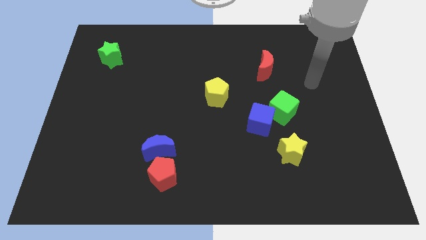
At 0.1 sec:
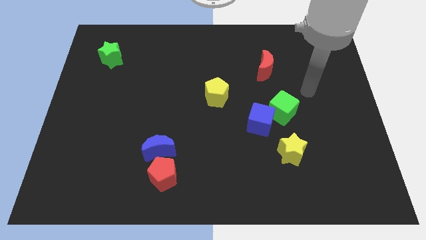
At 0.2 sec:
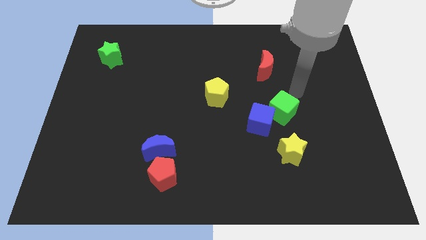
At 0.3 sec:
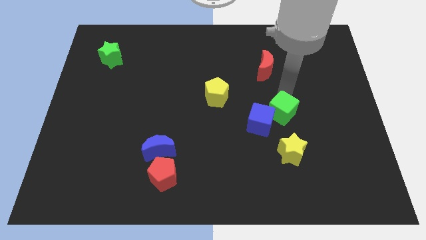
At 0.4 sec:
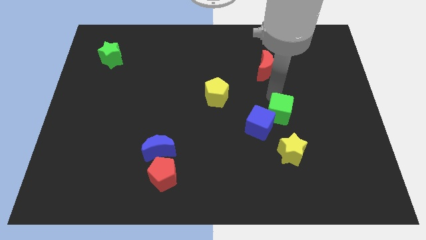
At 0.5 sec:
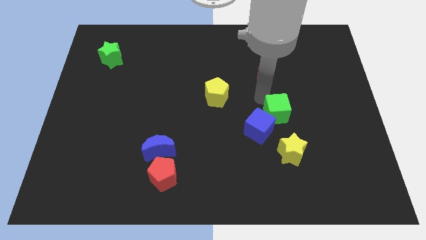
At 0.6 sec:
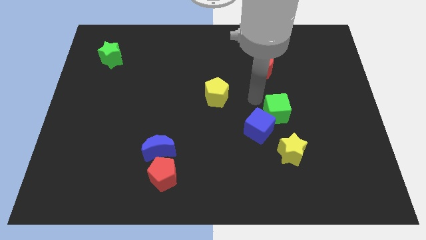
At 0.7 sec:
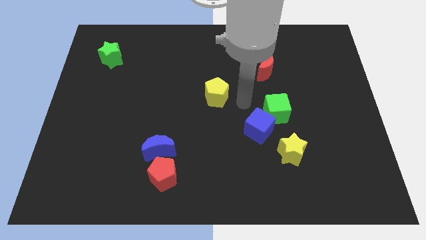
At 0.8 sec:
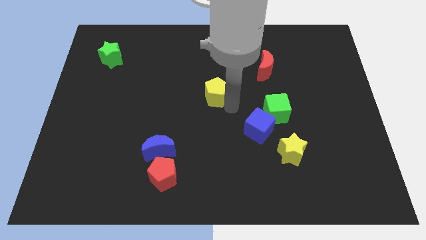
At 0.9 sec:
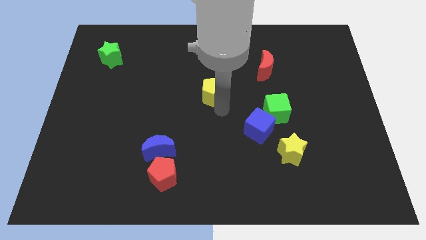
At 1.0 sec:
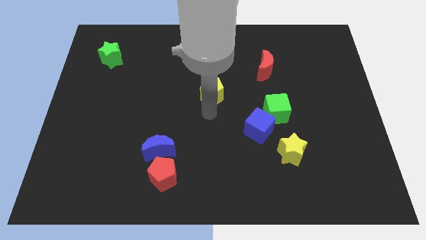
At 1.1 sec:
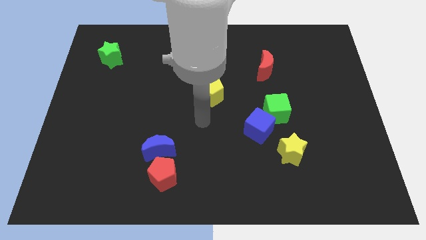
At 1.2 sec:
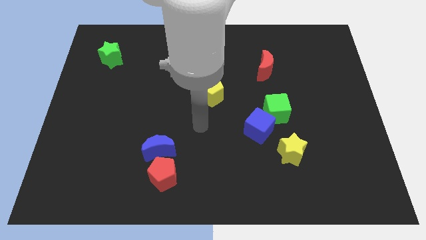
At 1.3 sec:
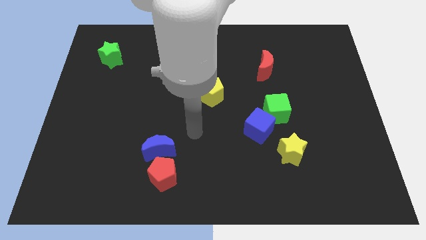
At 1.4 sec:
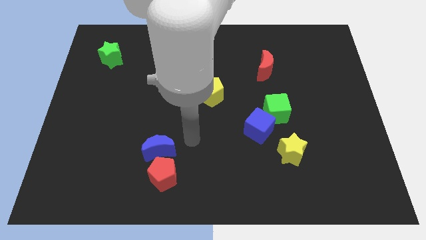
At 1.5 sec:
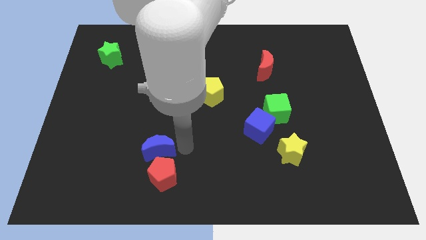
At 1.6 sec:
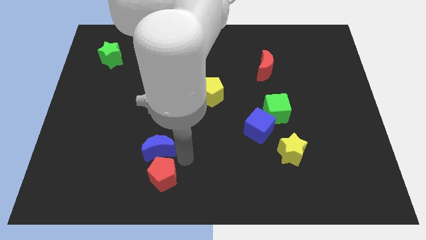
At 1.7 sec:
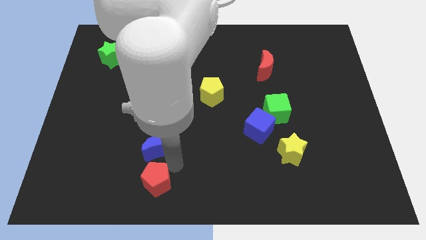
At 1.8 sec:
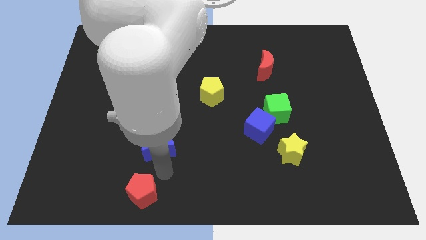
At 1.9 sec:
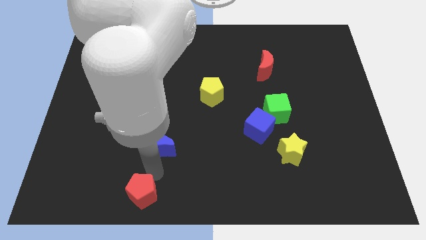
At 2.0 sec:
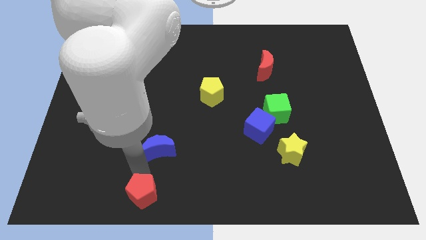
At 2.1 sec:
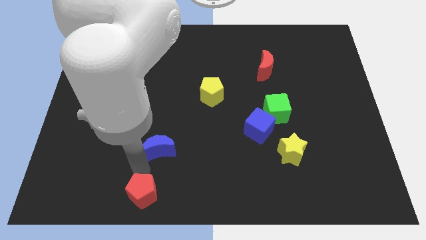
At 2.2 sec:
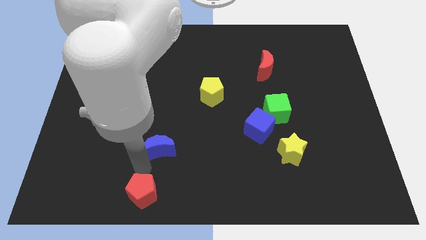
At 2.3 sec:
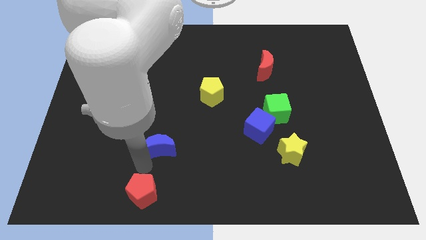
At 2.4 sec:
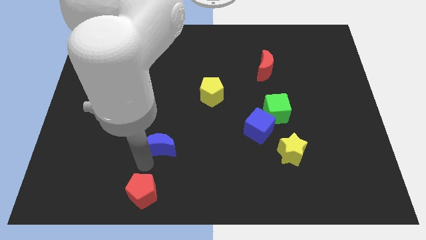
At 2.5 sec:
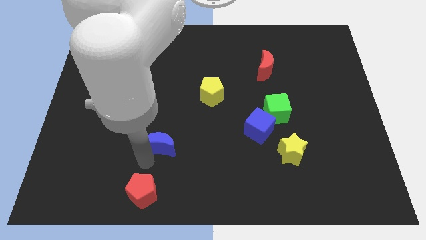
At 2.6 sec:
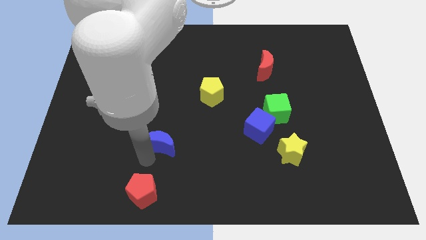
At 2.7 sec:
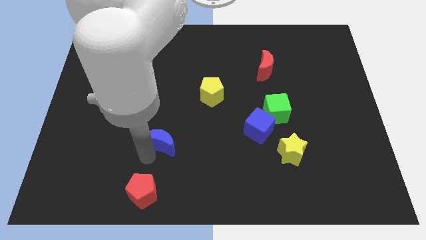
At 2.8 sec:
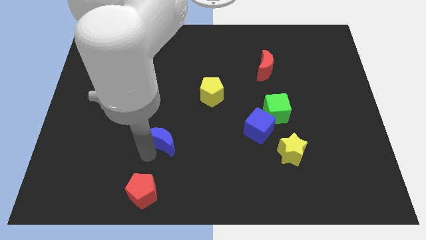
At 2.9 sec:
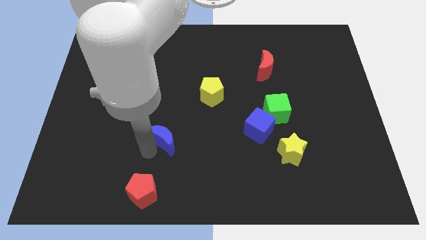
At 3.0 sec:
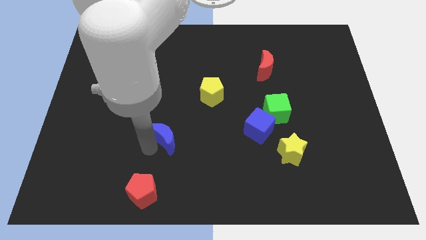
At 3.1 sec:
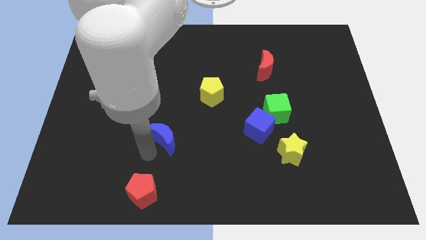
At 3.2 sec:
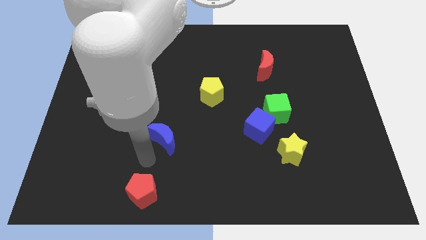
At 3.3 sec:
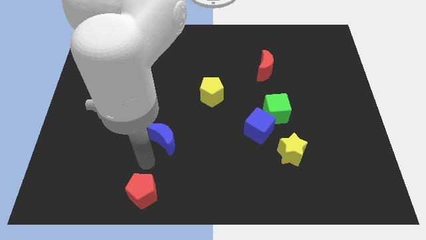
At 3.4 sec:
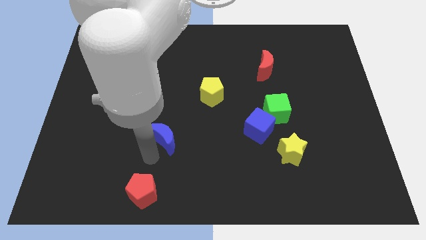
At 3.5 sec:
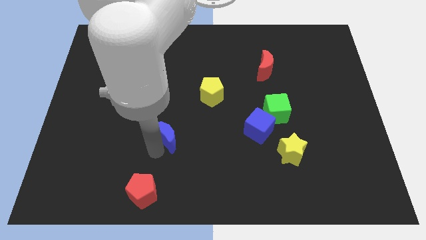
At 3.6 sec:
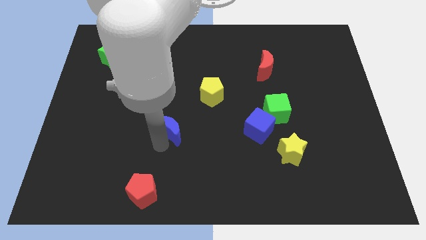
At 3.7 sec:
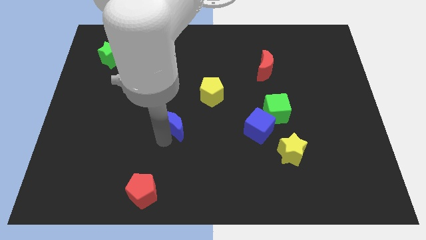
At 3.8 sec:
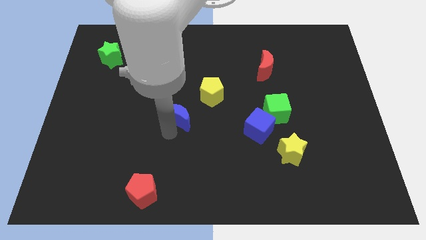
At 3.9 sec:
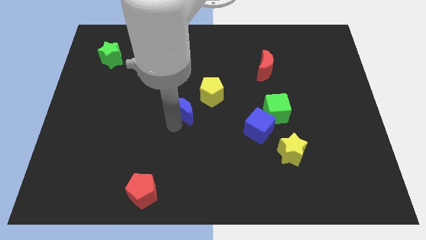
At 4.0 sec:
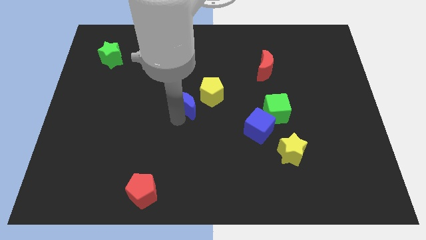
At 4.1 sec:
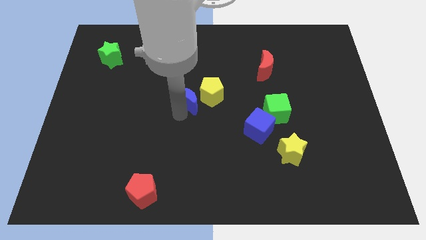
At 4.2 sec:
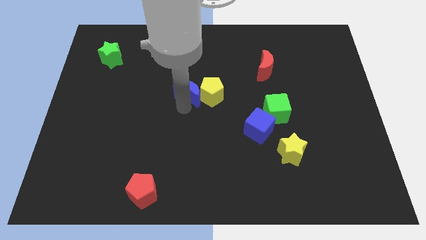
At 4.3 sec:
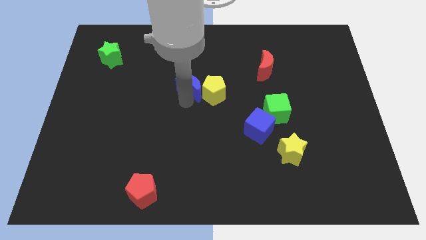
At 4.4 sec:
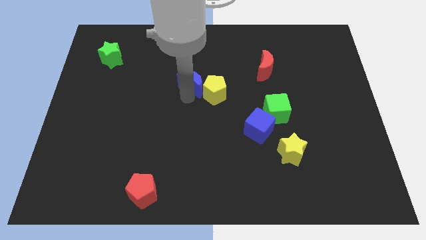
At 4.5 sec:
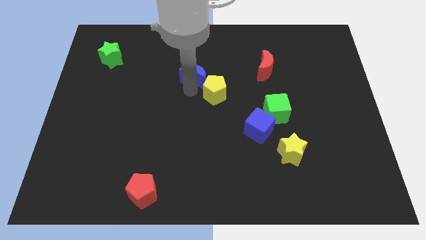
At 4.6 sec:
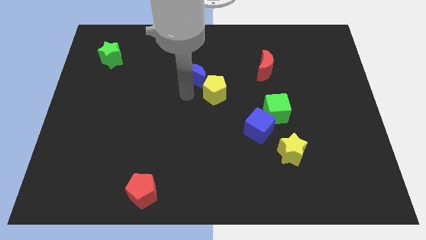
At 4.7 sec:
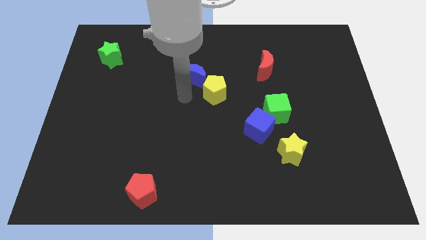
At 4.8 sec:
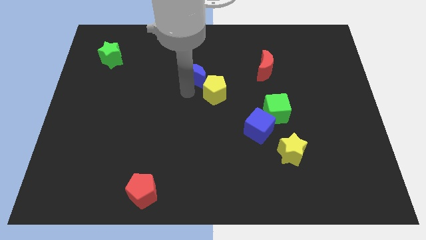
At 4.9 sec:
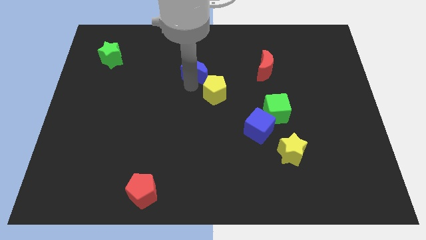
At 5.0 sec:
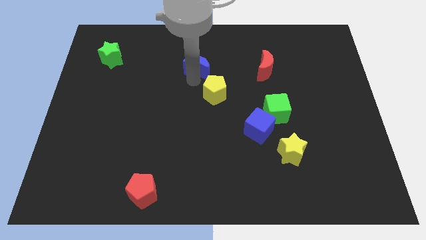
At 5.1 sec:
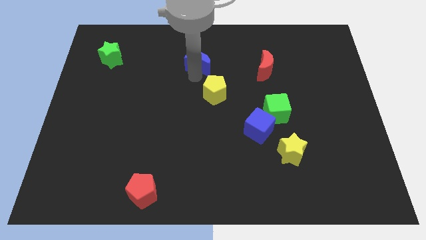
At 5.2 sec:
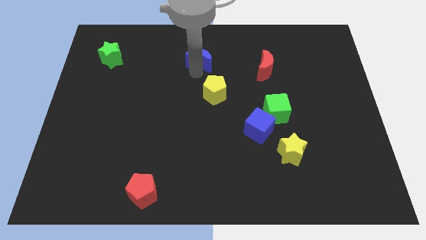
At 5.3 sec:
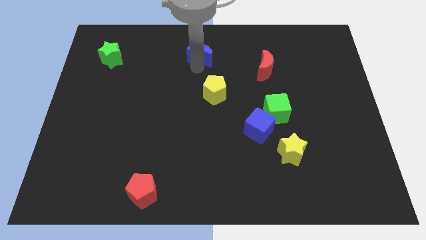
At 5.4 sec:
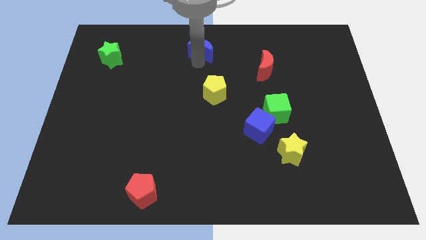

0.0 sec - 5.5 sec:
put the blue moon to the top

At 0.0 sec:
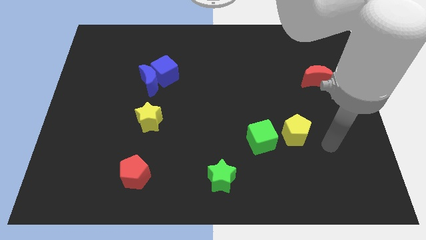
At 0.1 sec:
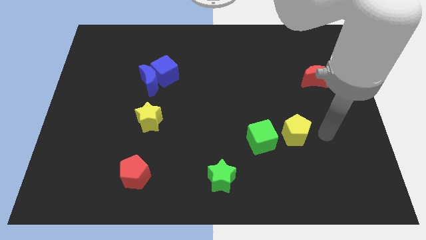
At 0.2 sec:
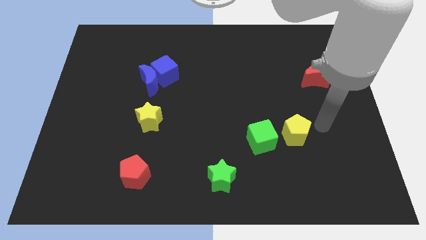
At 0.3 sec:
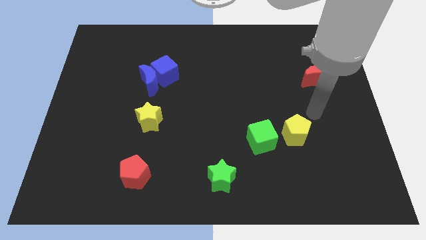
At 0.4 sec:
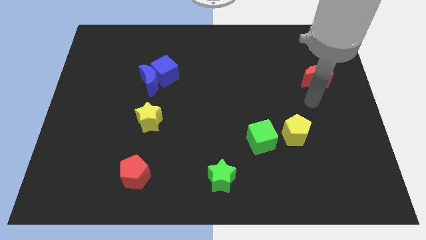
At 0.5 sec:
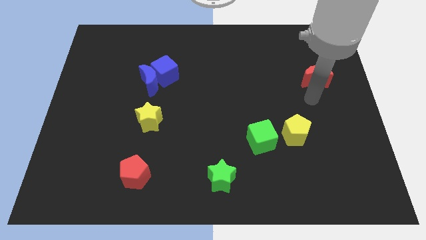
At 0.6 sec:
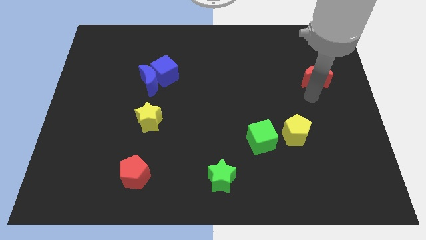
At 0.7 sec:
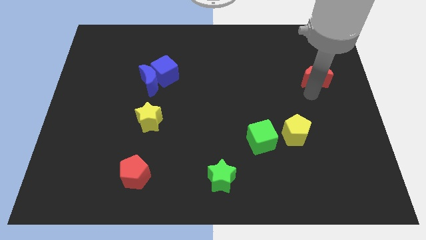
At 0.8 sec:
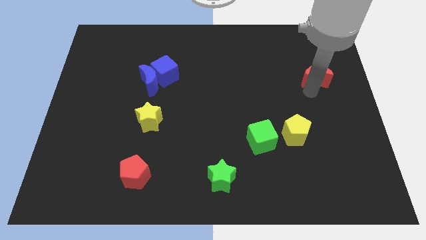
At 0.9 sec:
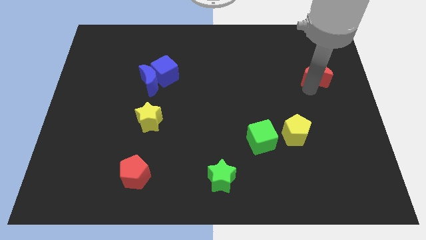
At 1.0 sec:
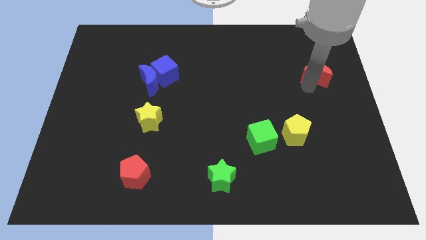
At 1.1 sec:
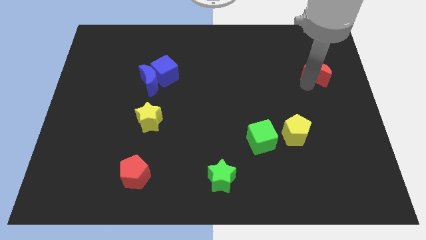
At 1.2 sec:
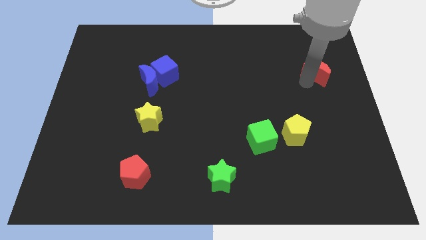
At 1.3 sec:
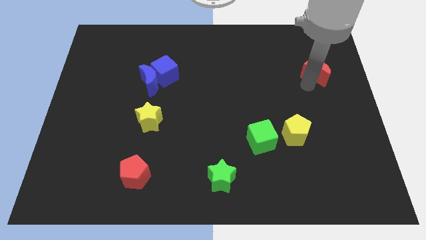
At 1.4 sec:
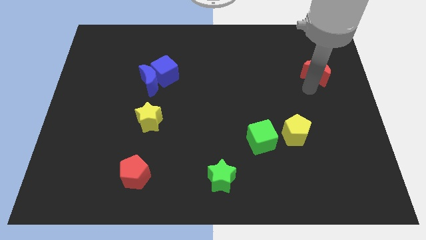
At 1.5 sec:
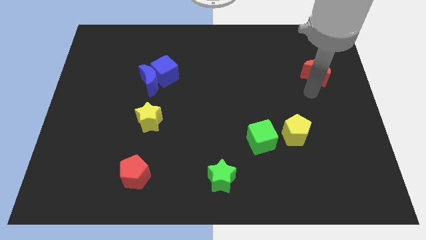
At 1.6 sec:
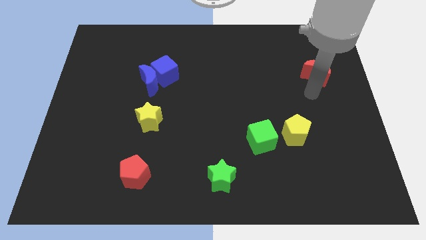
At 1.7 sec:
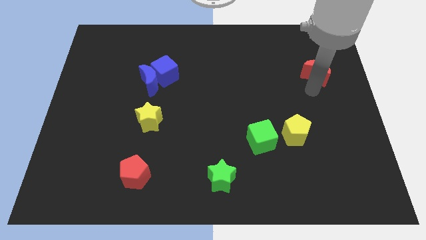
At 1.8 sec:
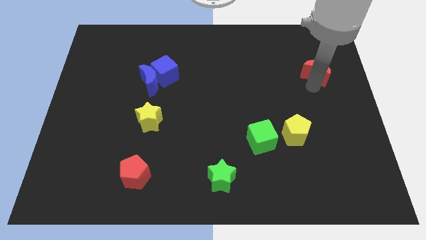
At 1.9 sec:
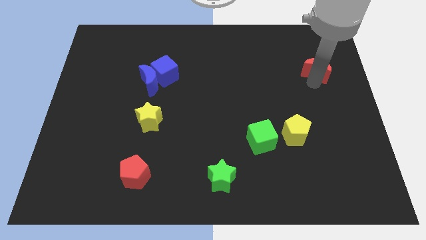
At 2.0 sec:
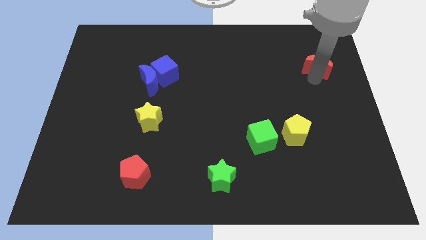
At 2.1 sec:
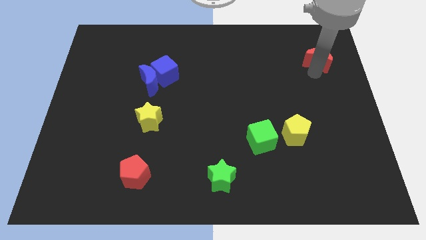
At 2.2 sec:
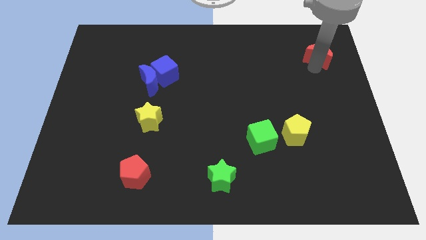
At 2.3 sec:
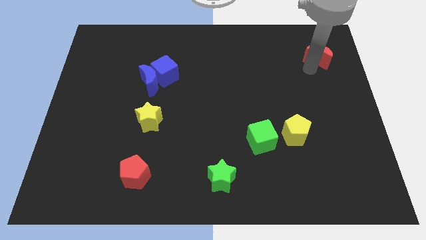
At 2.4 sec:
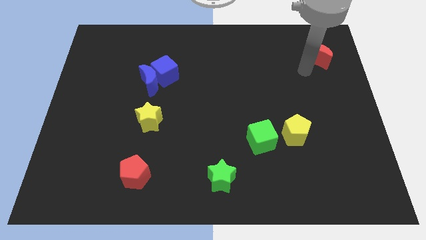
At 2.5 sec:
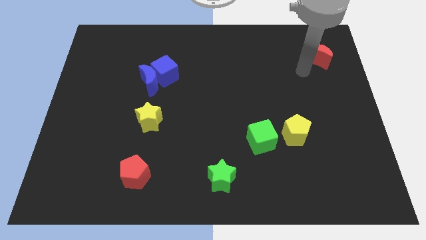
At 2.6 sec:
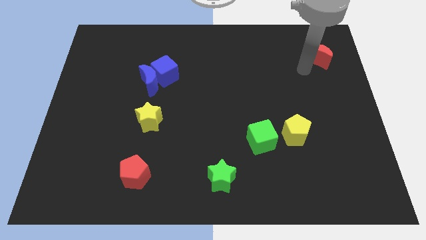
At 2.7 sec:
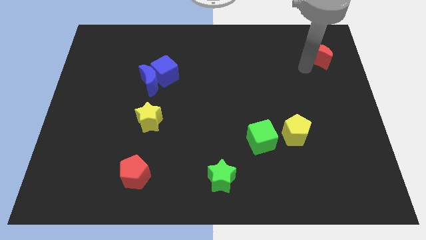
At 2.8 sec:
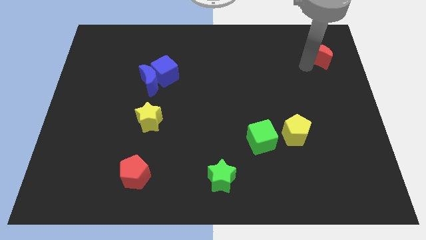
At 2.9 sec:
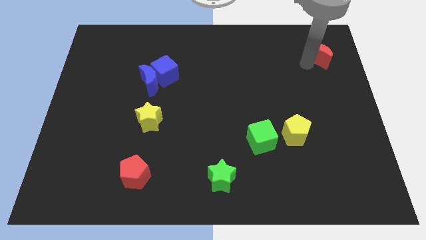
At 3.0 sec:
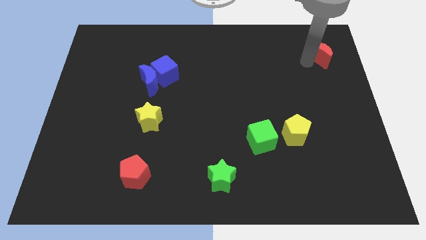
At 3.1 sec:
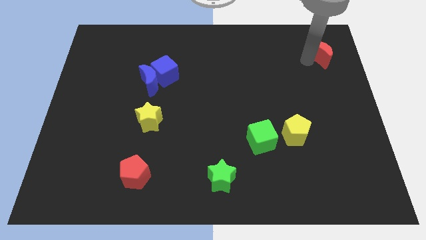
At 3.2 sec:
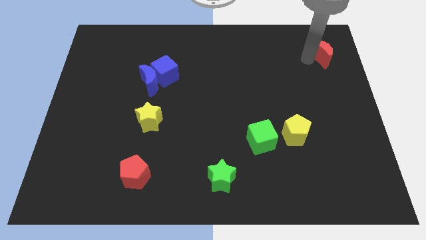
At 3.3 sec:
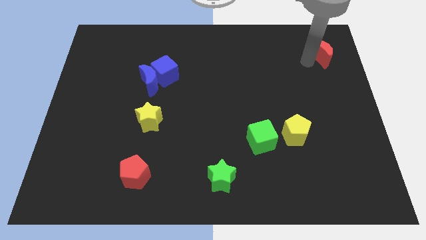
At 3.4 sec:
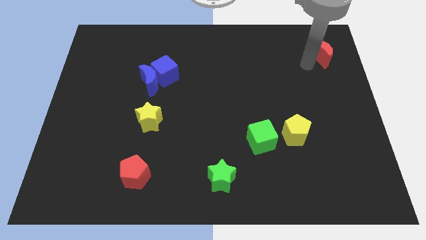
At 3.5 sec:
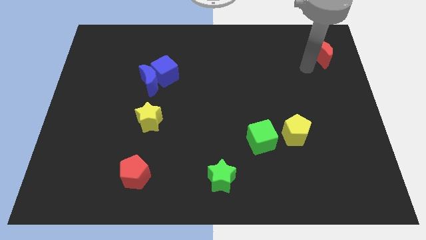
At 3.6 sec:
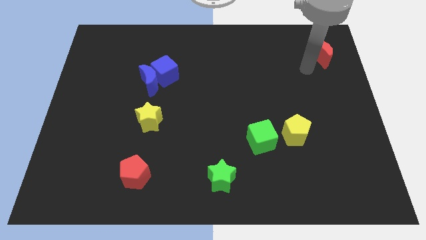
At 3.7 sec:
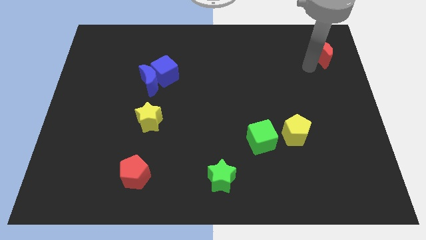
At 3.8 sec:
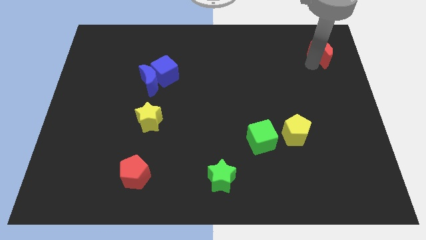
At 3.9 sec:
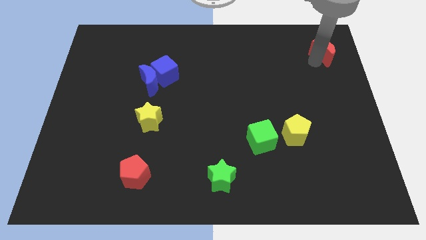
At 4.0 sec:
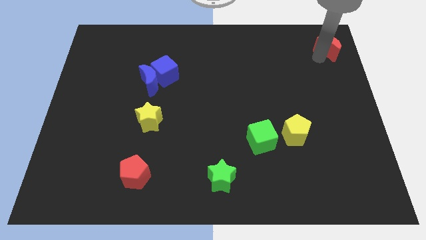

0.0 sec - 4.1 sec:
move the red moon to the top right corner
